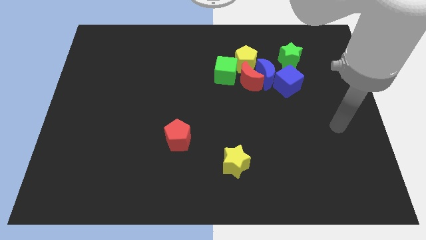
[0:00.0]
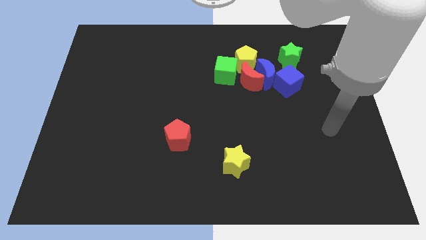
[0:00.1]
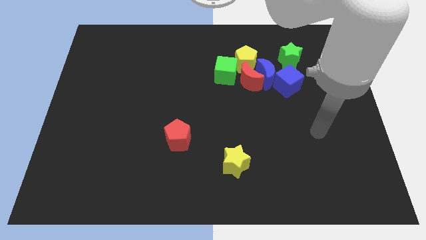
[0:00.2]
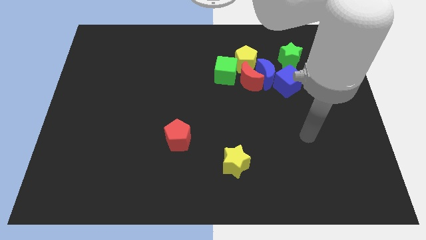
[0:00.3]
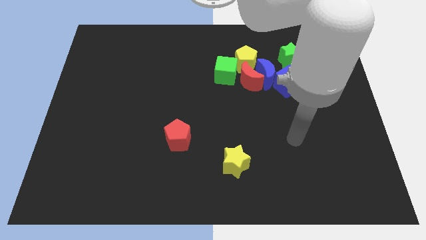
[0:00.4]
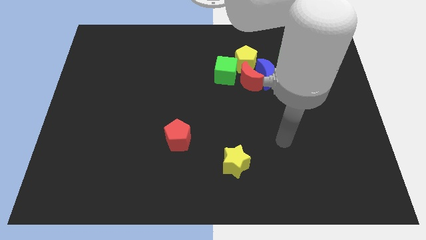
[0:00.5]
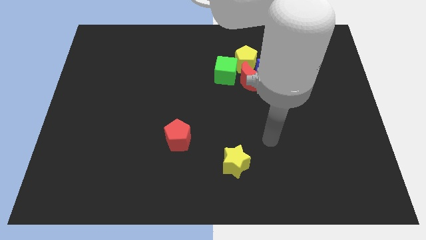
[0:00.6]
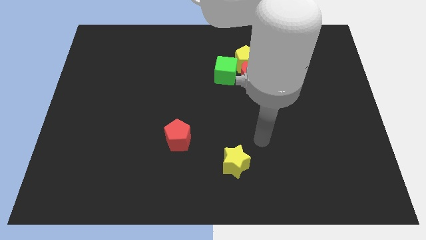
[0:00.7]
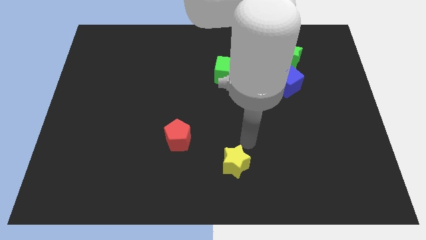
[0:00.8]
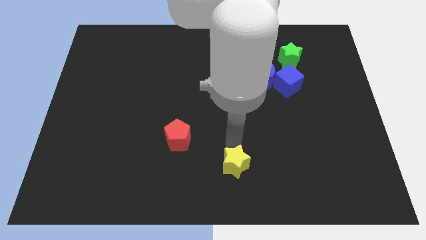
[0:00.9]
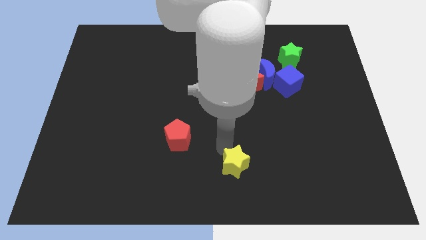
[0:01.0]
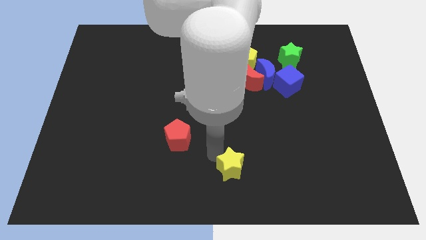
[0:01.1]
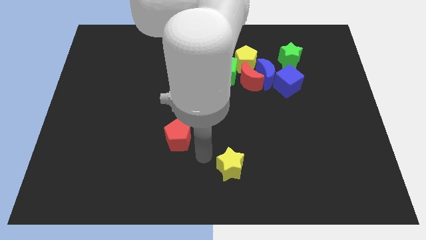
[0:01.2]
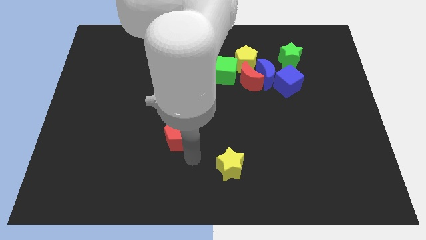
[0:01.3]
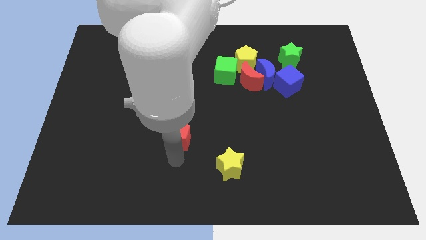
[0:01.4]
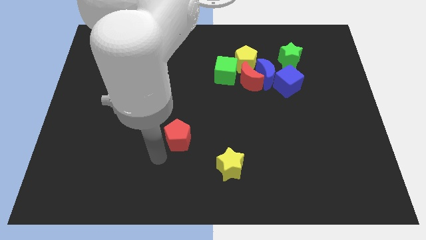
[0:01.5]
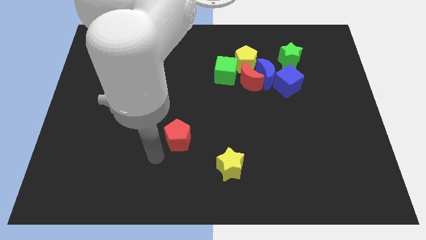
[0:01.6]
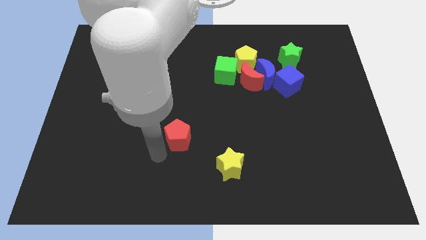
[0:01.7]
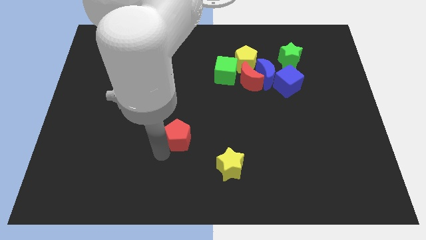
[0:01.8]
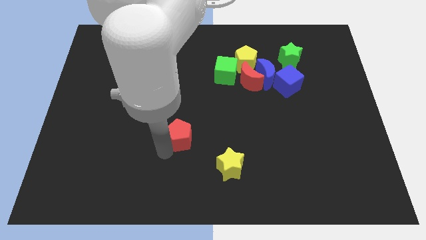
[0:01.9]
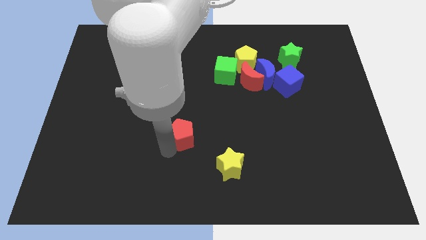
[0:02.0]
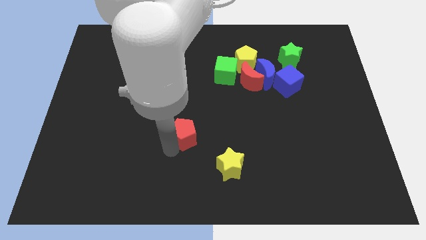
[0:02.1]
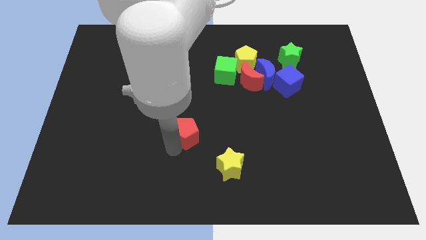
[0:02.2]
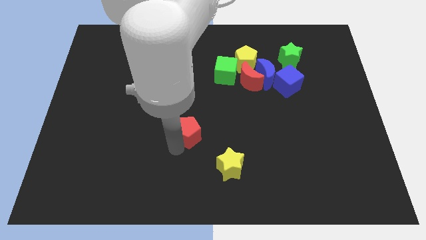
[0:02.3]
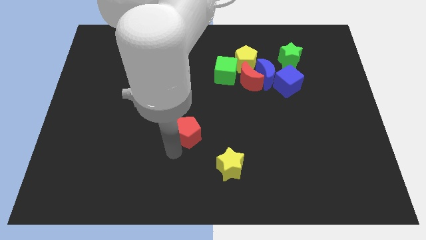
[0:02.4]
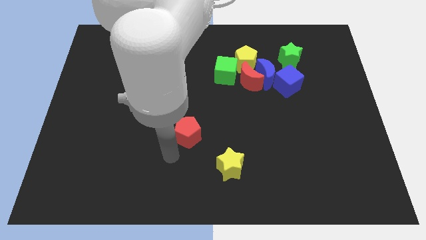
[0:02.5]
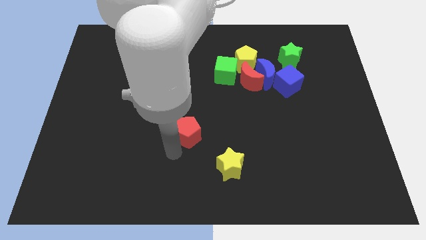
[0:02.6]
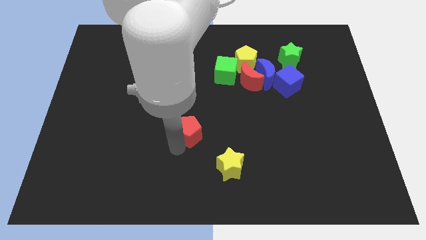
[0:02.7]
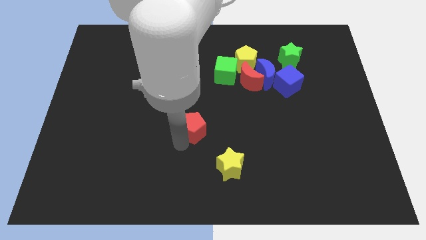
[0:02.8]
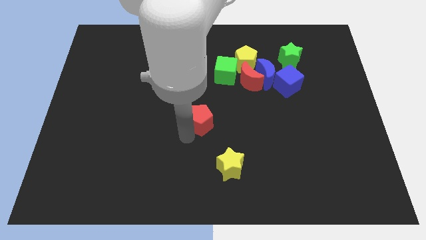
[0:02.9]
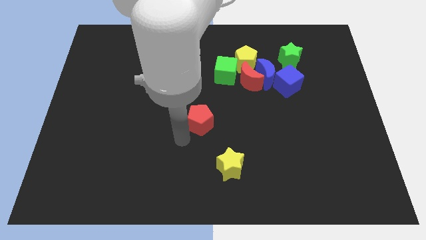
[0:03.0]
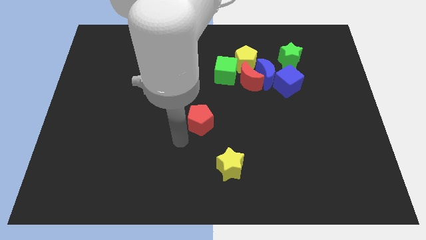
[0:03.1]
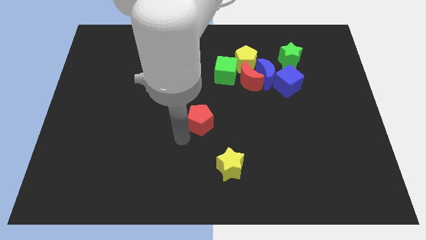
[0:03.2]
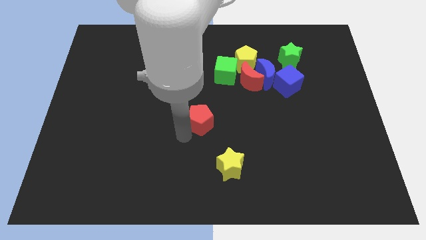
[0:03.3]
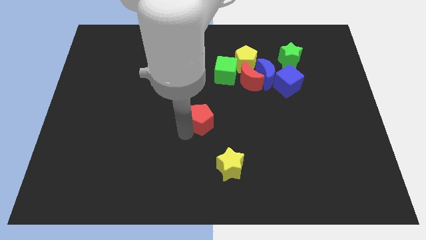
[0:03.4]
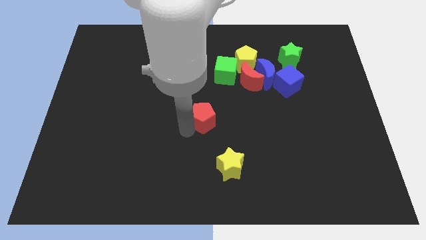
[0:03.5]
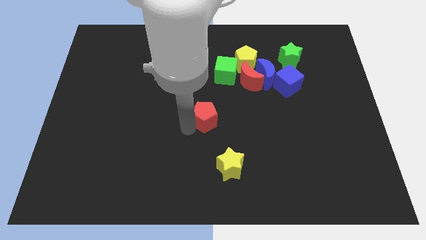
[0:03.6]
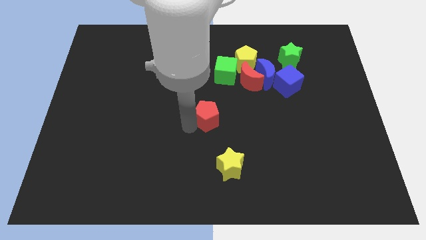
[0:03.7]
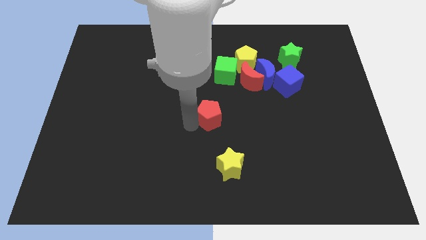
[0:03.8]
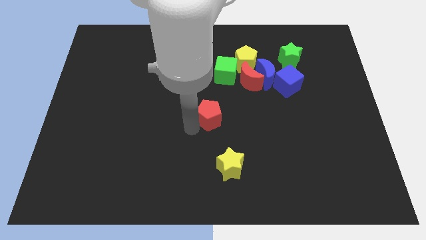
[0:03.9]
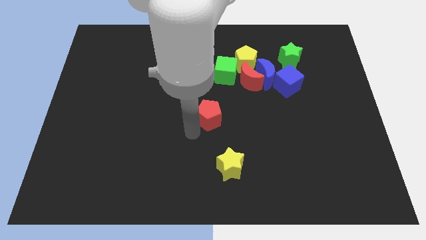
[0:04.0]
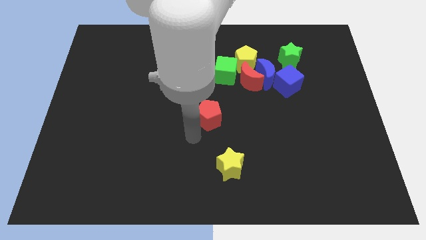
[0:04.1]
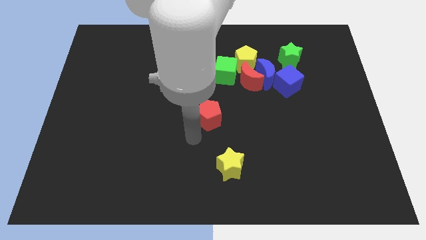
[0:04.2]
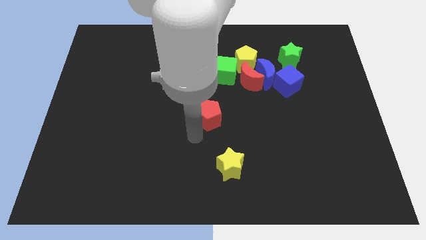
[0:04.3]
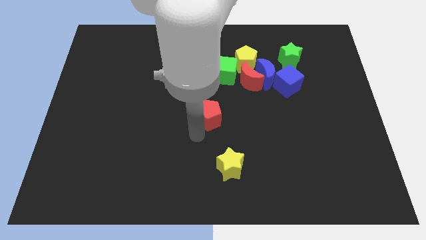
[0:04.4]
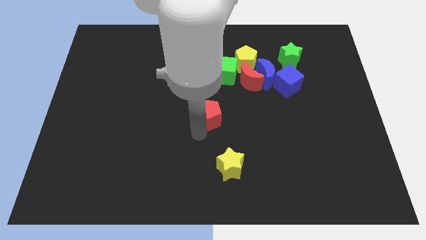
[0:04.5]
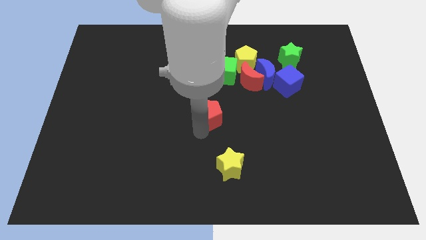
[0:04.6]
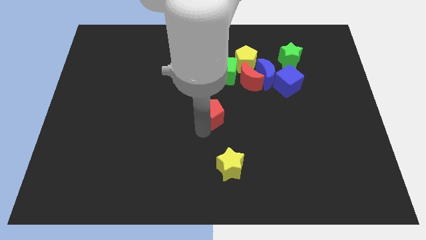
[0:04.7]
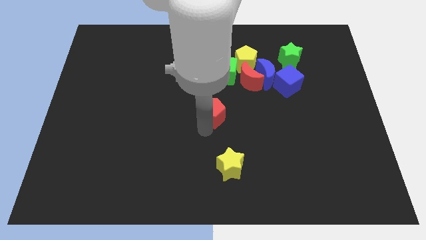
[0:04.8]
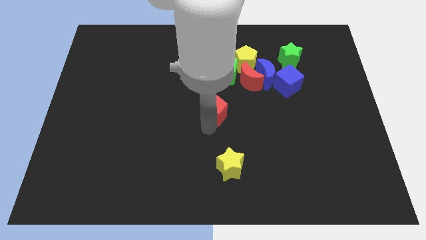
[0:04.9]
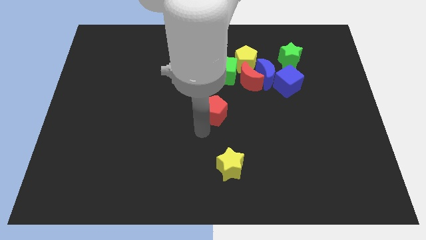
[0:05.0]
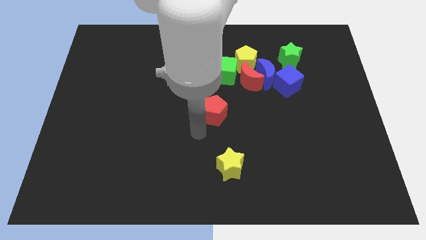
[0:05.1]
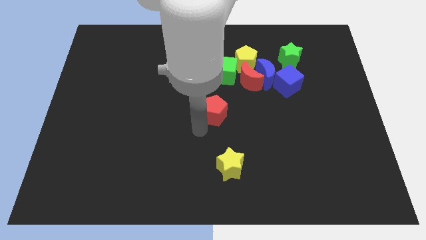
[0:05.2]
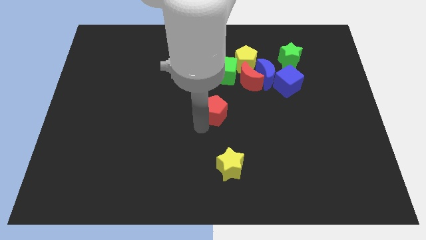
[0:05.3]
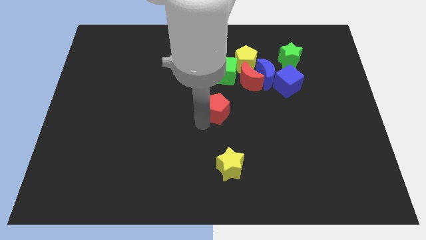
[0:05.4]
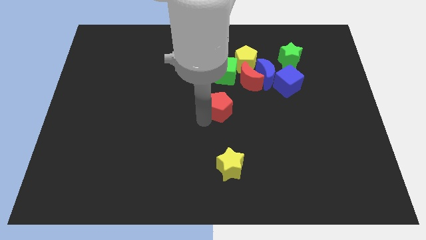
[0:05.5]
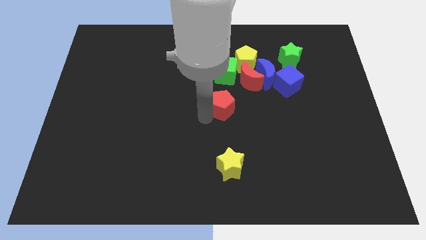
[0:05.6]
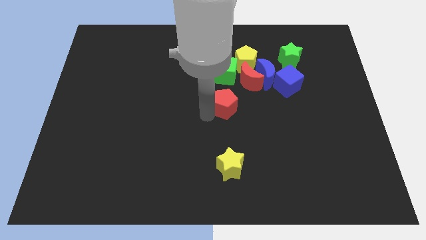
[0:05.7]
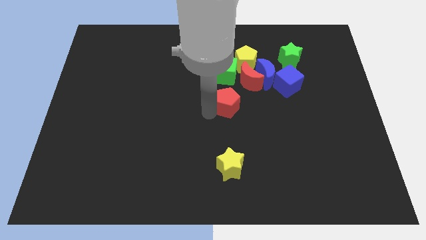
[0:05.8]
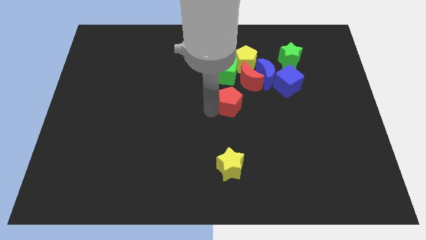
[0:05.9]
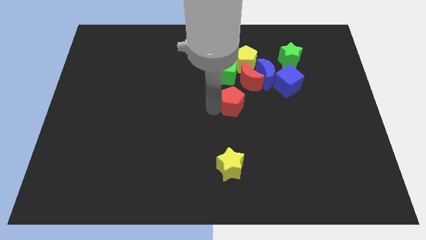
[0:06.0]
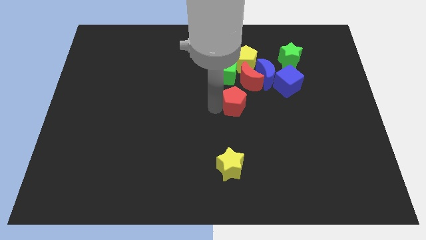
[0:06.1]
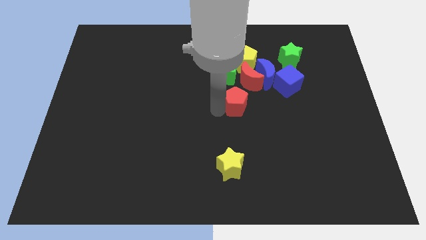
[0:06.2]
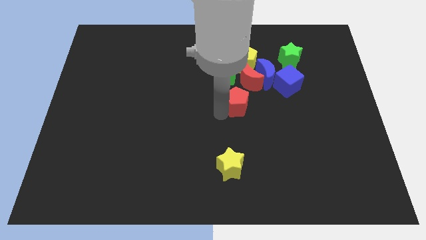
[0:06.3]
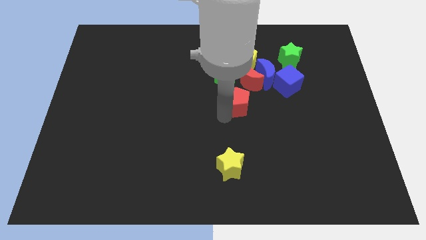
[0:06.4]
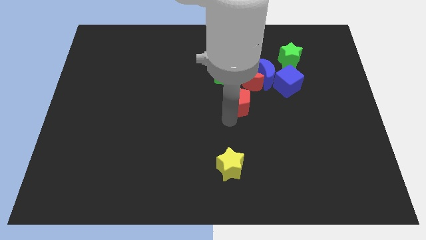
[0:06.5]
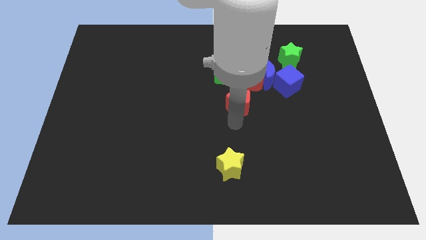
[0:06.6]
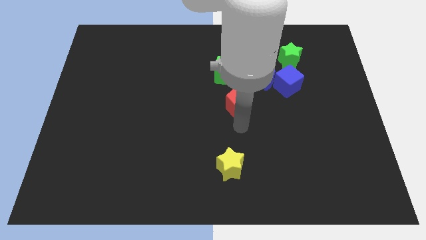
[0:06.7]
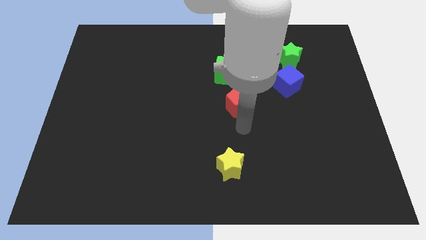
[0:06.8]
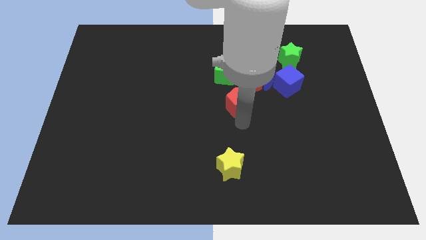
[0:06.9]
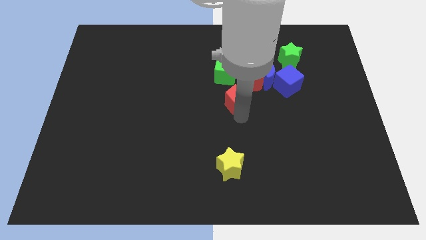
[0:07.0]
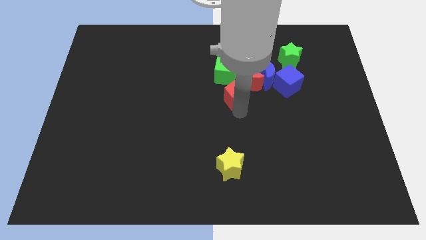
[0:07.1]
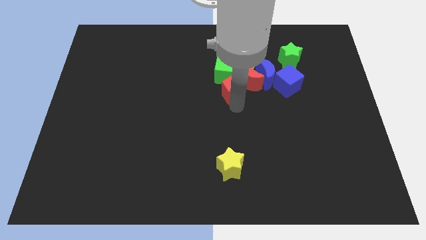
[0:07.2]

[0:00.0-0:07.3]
push the red pentagon towards the red moon

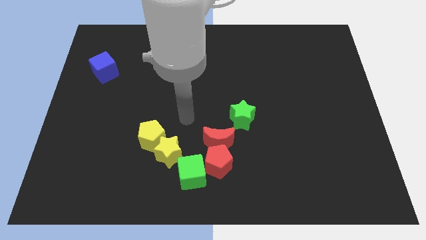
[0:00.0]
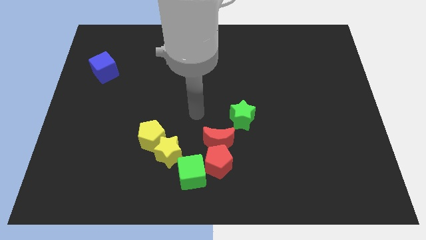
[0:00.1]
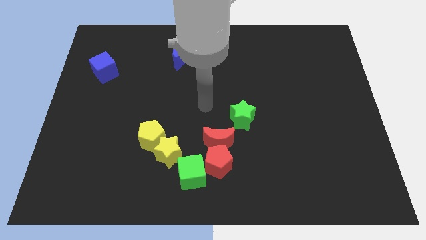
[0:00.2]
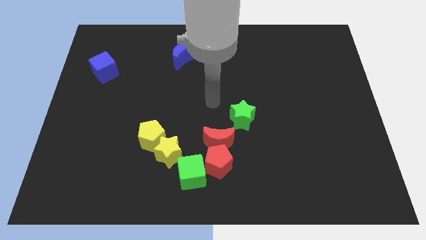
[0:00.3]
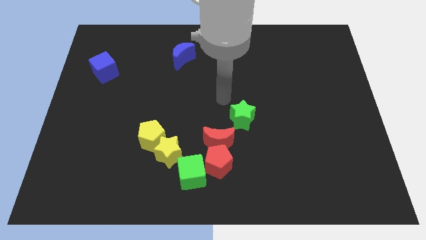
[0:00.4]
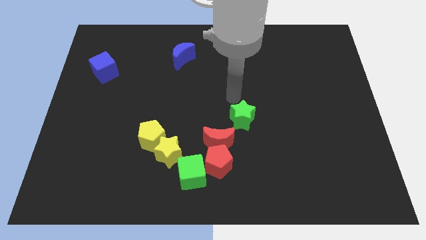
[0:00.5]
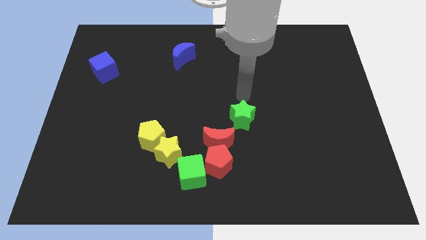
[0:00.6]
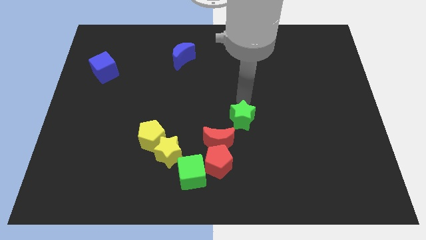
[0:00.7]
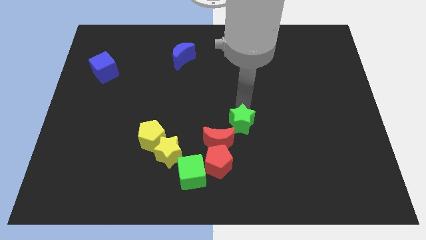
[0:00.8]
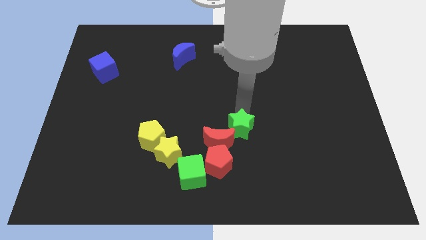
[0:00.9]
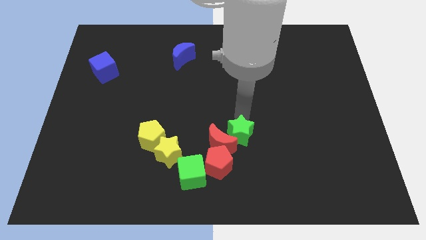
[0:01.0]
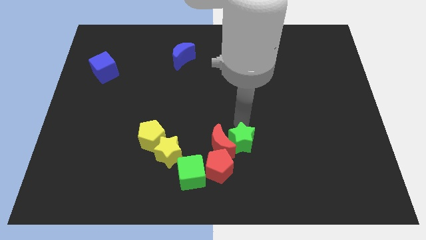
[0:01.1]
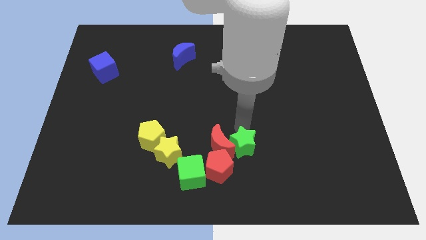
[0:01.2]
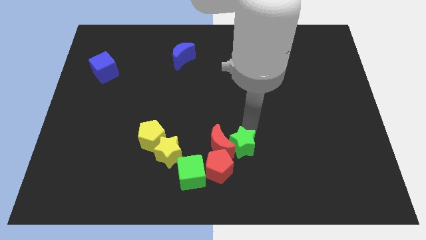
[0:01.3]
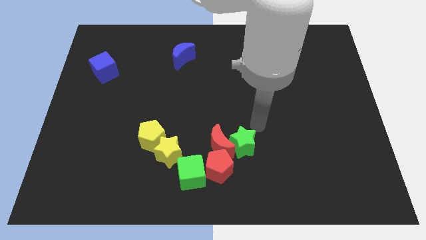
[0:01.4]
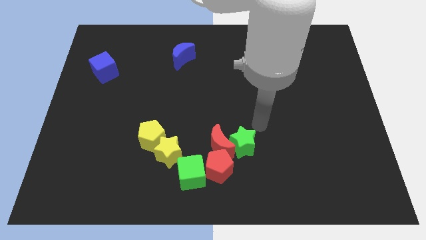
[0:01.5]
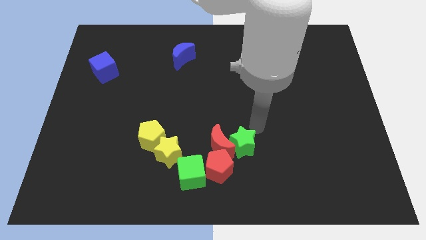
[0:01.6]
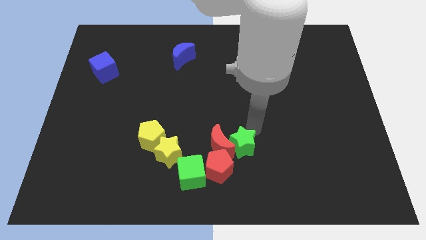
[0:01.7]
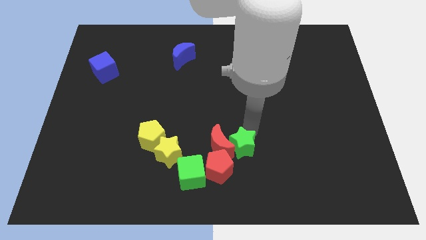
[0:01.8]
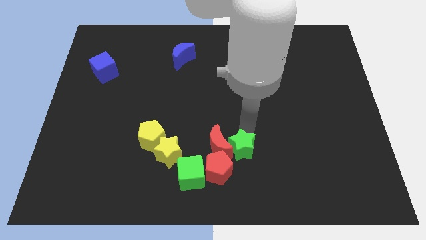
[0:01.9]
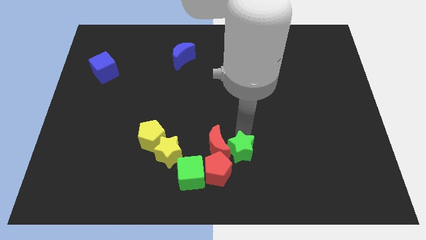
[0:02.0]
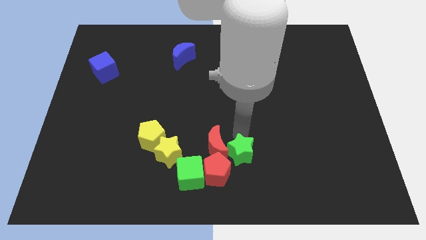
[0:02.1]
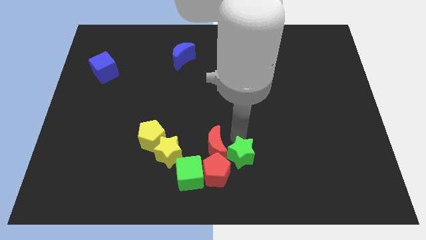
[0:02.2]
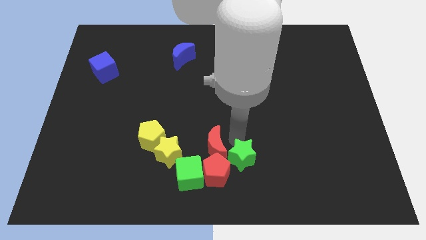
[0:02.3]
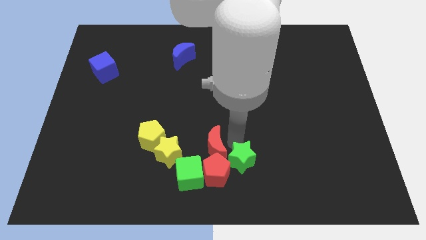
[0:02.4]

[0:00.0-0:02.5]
put the green star towards the red pentagon
